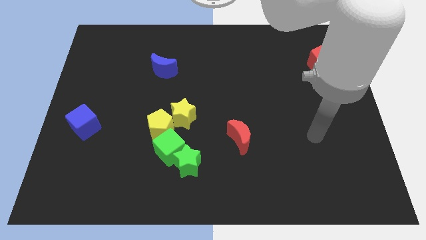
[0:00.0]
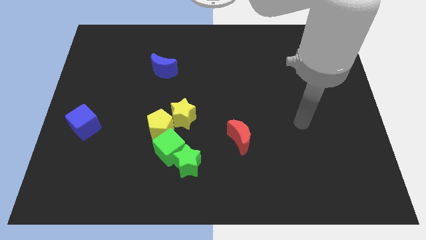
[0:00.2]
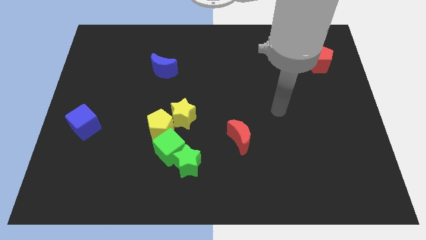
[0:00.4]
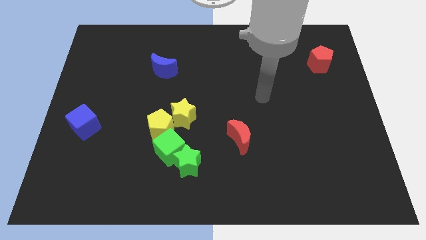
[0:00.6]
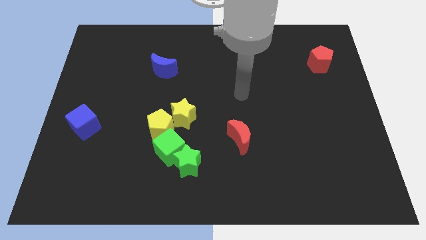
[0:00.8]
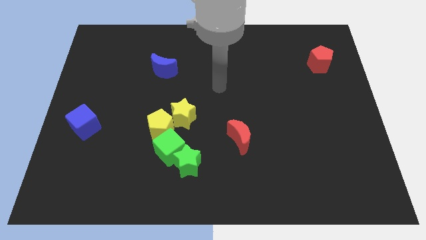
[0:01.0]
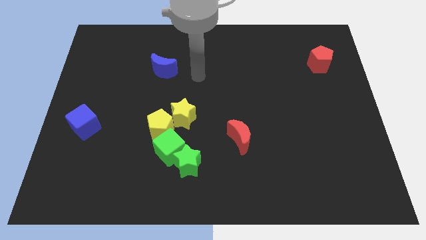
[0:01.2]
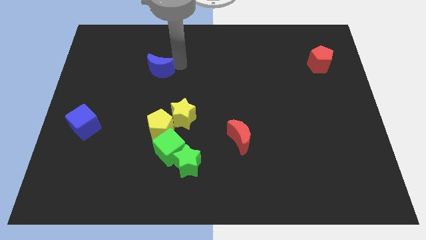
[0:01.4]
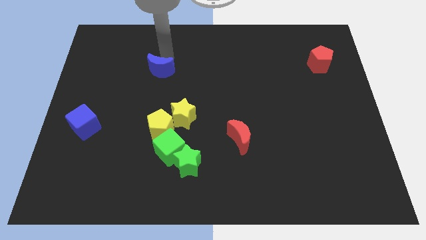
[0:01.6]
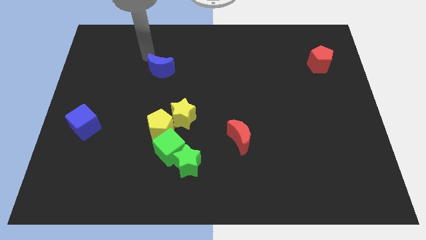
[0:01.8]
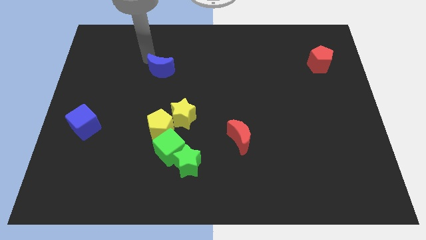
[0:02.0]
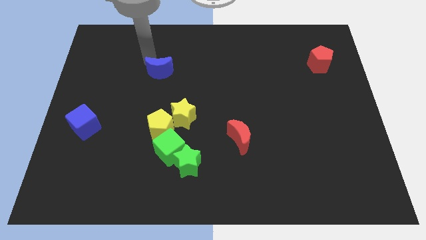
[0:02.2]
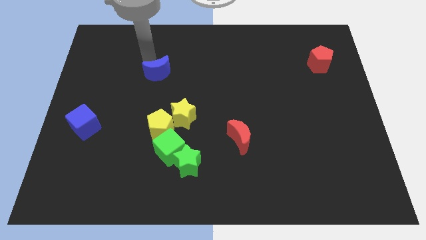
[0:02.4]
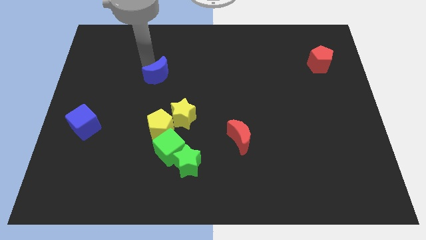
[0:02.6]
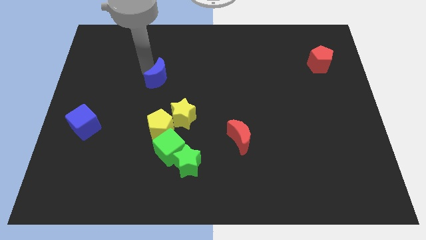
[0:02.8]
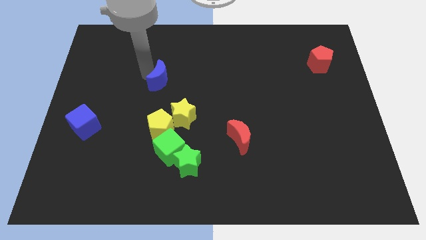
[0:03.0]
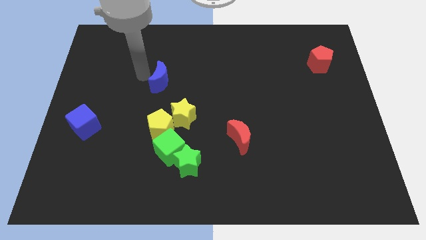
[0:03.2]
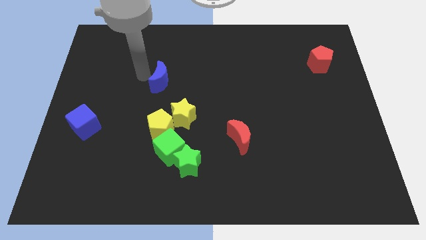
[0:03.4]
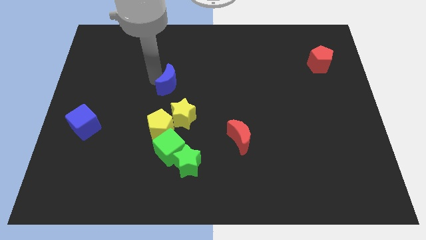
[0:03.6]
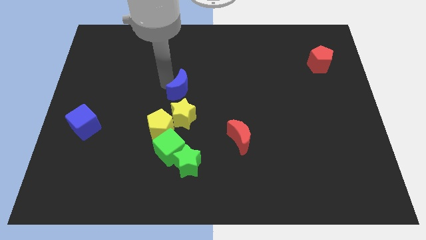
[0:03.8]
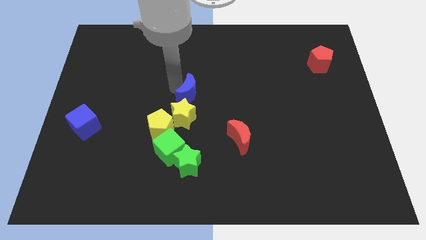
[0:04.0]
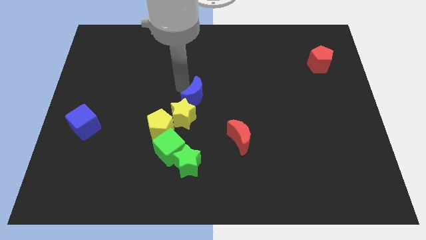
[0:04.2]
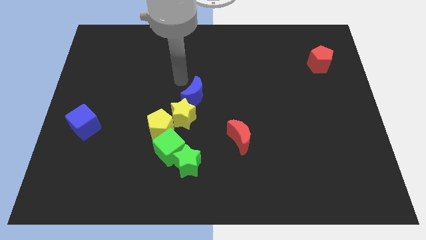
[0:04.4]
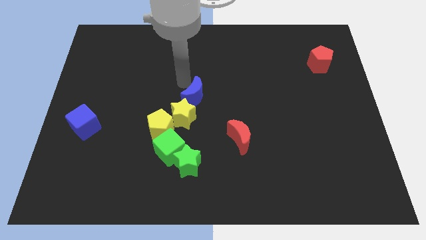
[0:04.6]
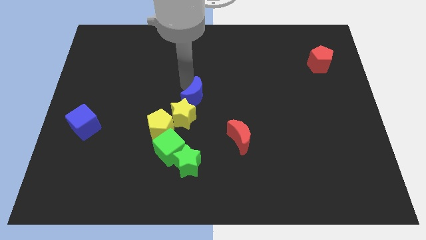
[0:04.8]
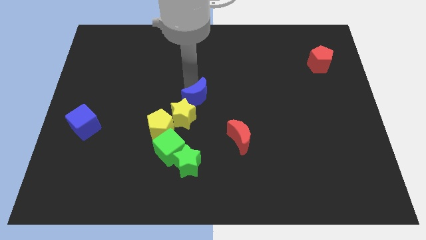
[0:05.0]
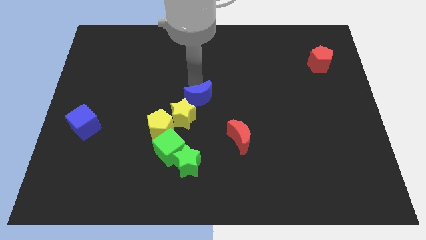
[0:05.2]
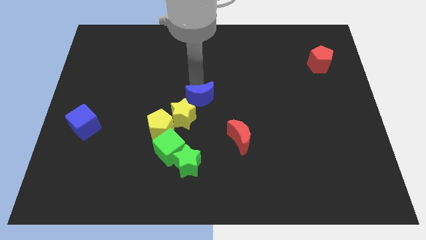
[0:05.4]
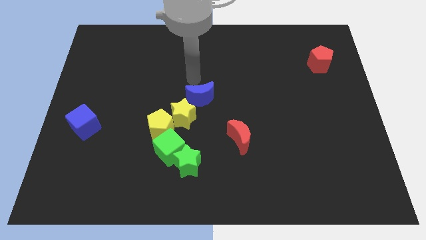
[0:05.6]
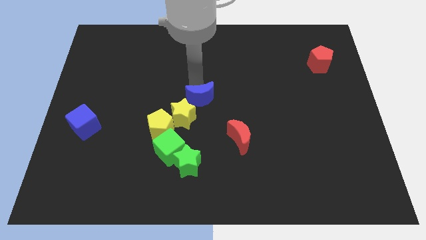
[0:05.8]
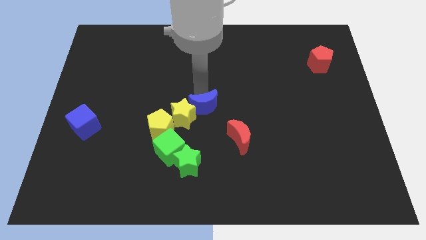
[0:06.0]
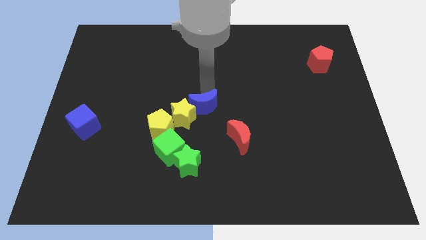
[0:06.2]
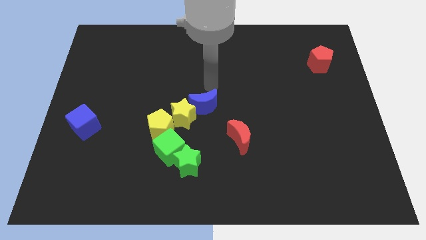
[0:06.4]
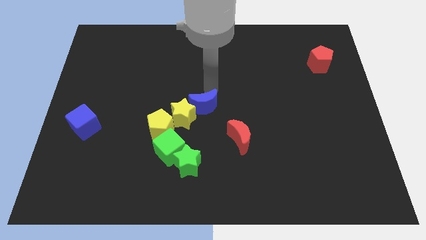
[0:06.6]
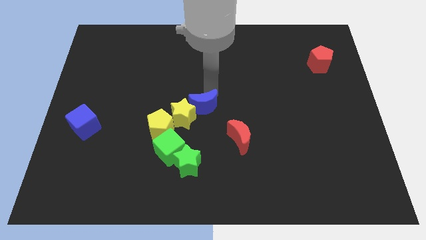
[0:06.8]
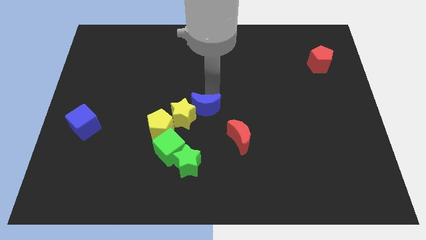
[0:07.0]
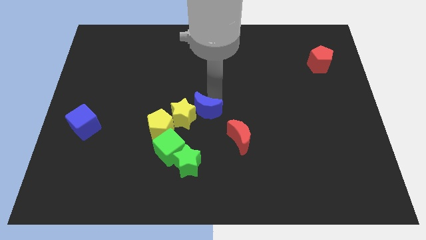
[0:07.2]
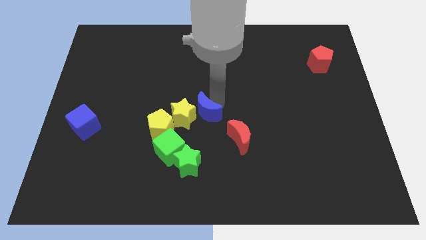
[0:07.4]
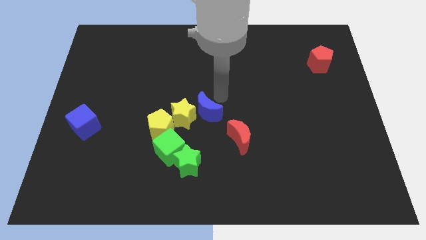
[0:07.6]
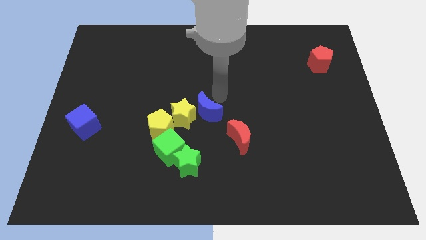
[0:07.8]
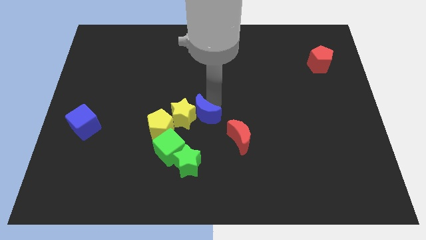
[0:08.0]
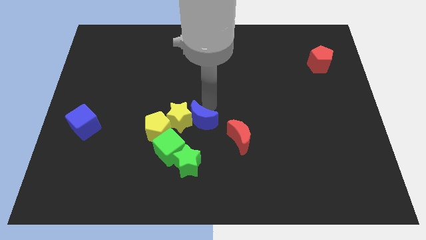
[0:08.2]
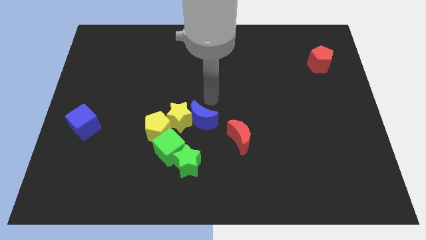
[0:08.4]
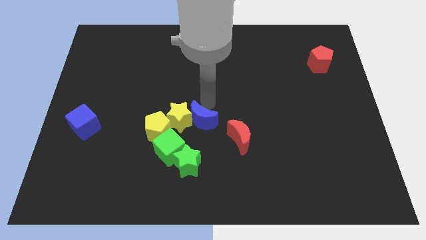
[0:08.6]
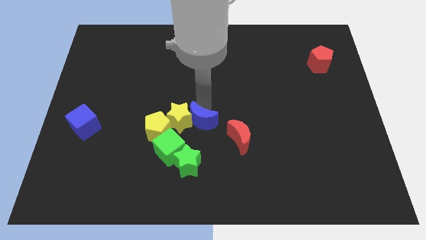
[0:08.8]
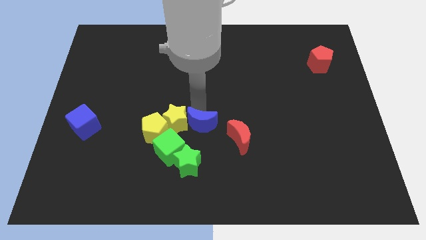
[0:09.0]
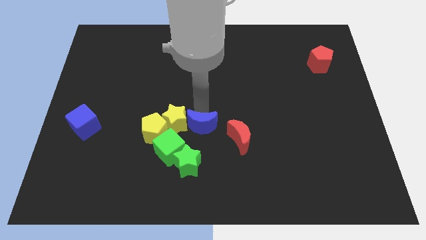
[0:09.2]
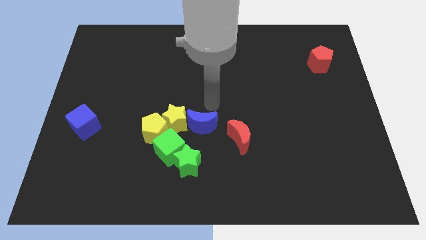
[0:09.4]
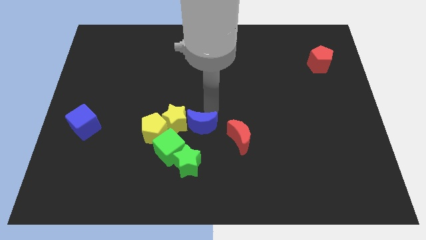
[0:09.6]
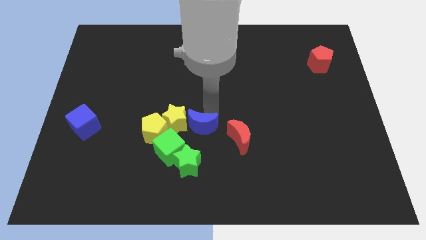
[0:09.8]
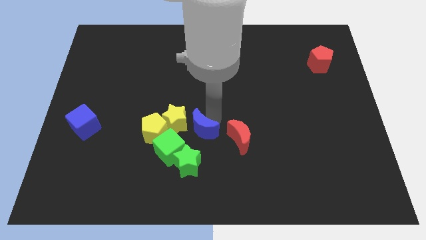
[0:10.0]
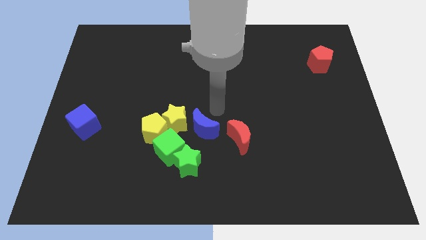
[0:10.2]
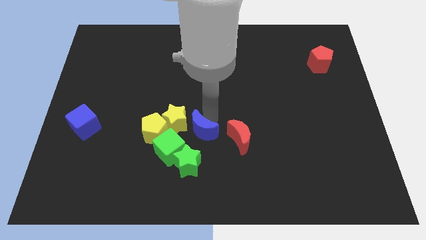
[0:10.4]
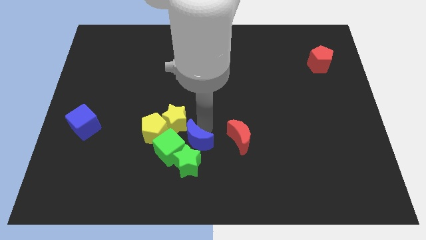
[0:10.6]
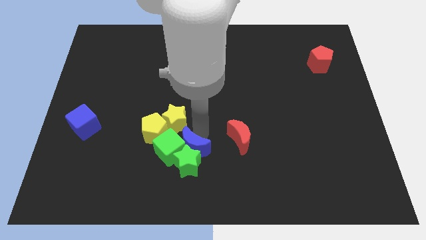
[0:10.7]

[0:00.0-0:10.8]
move the blue moon close to the green star

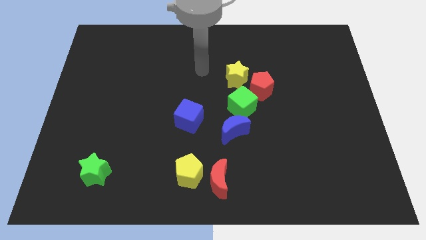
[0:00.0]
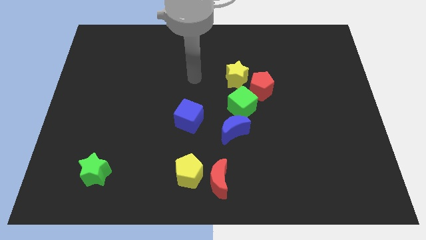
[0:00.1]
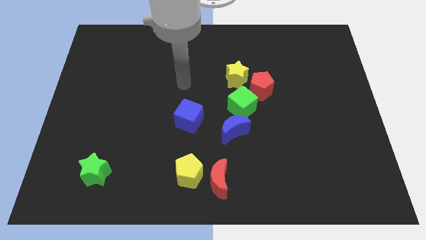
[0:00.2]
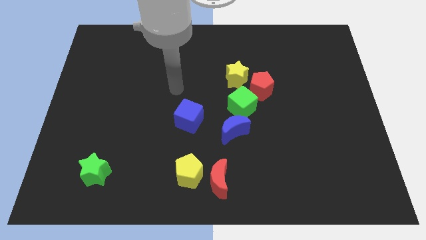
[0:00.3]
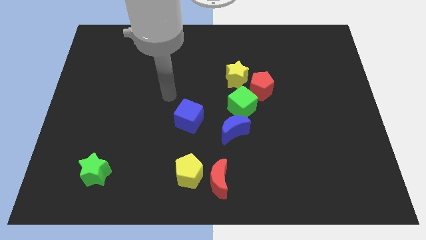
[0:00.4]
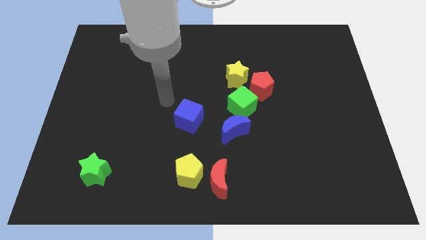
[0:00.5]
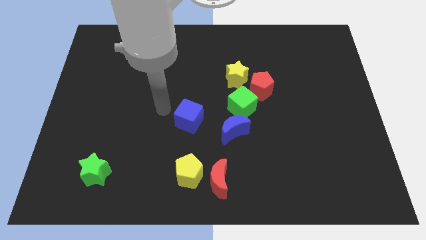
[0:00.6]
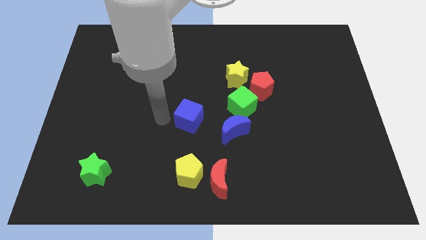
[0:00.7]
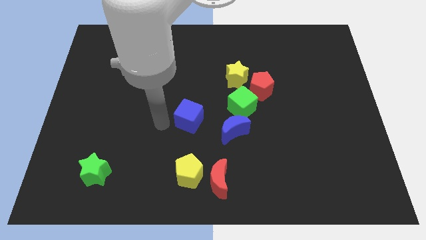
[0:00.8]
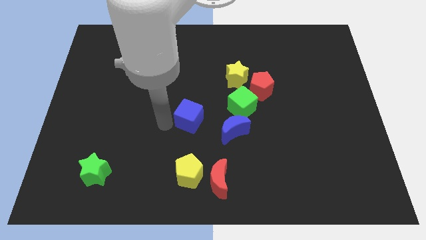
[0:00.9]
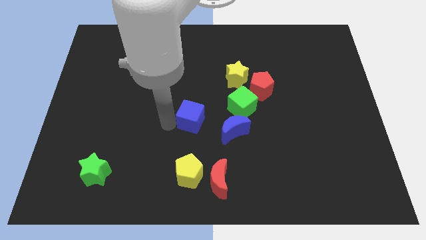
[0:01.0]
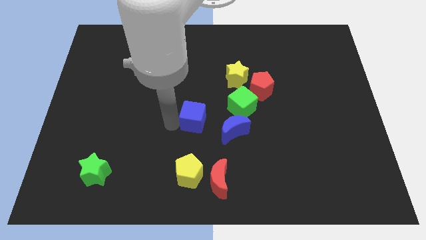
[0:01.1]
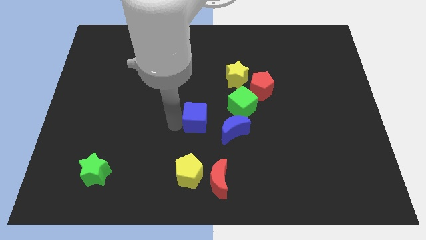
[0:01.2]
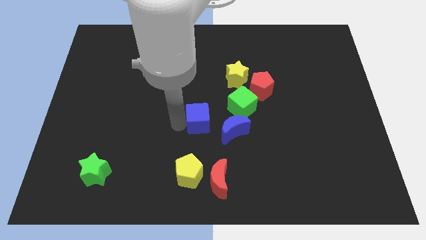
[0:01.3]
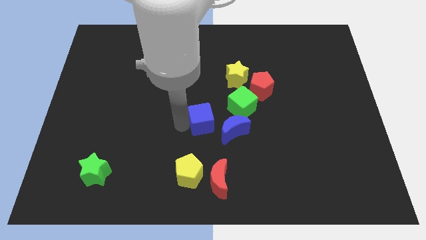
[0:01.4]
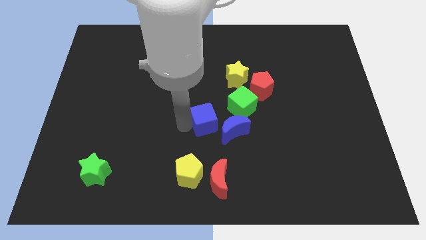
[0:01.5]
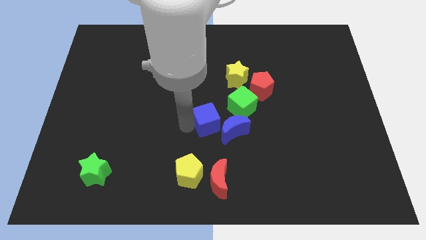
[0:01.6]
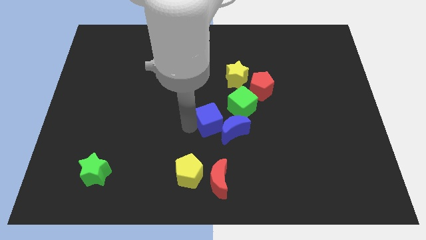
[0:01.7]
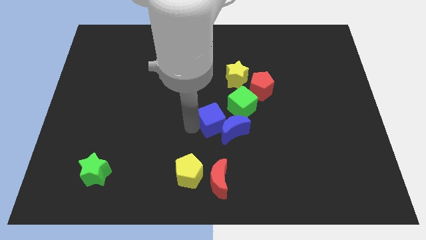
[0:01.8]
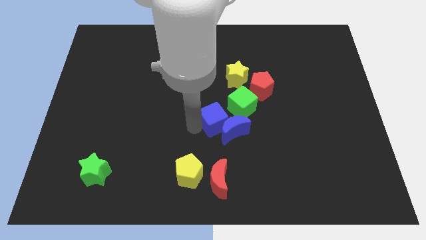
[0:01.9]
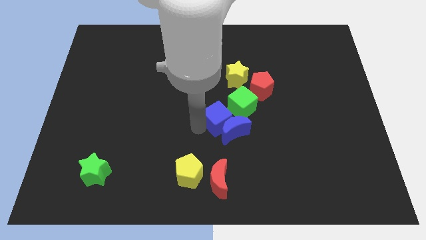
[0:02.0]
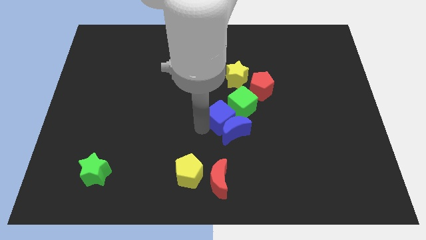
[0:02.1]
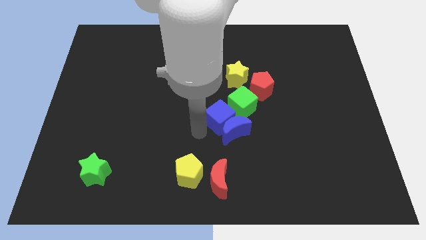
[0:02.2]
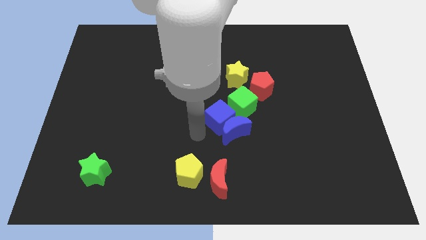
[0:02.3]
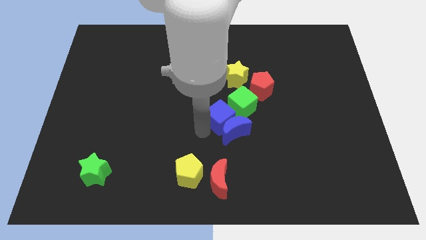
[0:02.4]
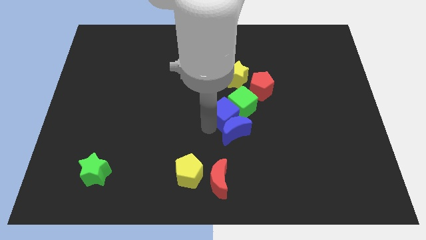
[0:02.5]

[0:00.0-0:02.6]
move the blue cube close to the green cube
